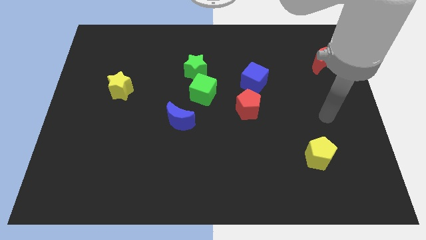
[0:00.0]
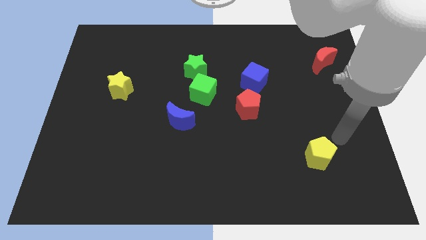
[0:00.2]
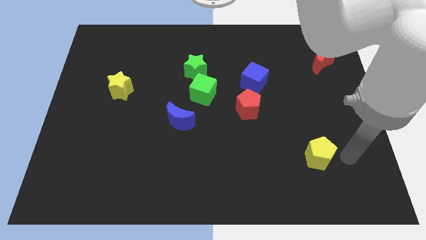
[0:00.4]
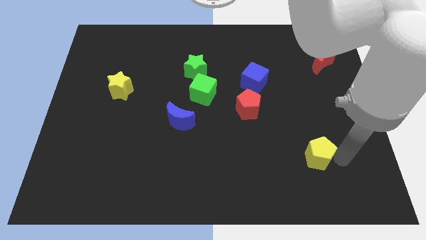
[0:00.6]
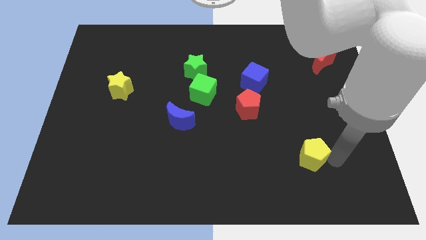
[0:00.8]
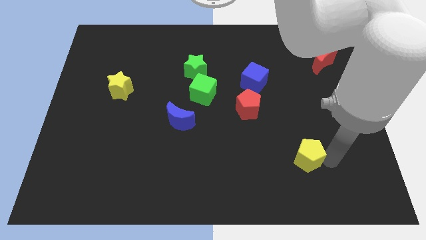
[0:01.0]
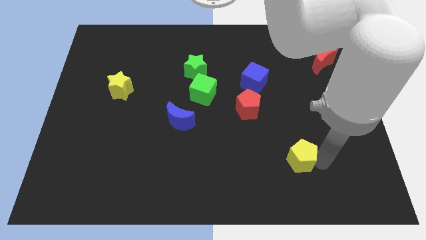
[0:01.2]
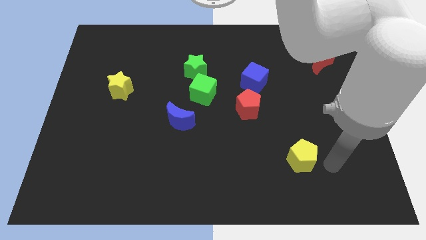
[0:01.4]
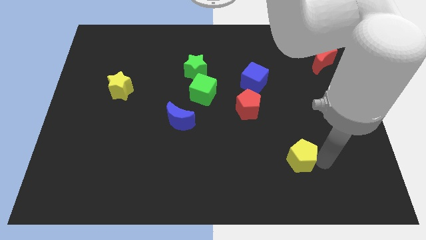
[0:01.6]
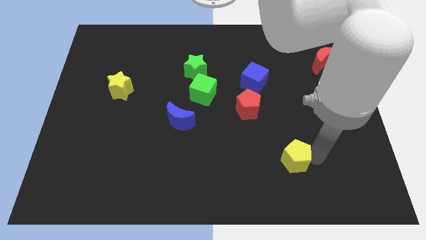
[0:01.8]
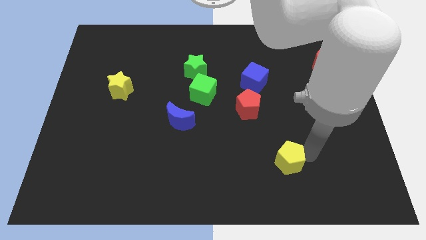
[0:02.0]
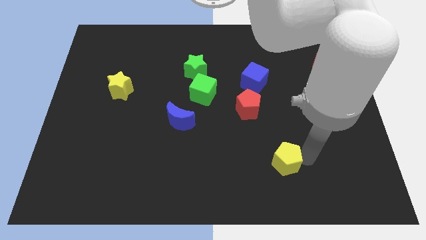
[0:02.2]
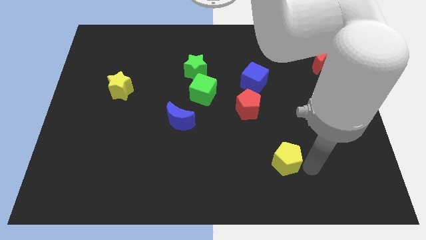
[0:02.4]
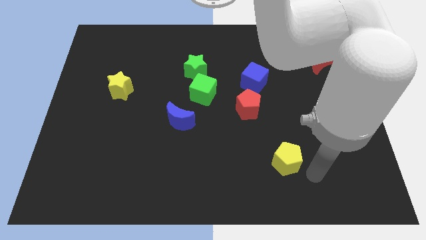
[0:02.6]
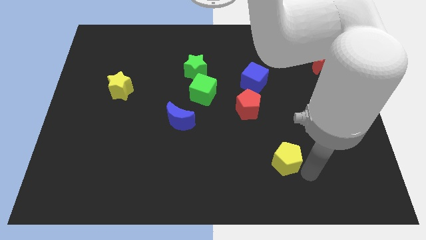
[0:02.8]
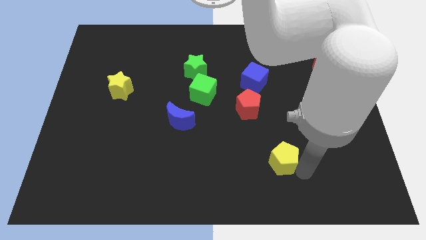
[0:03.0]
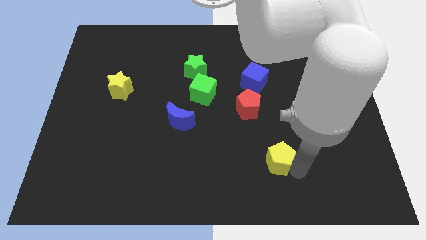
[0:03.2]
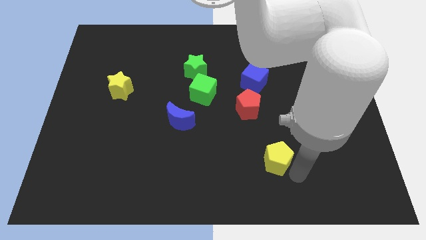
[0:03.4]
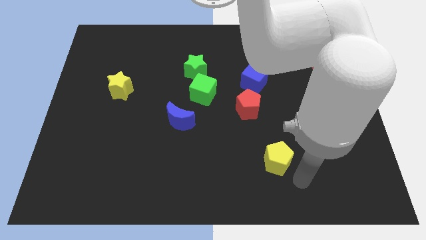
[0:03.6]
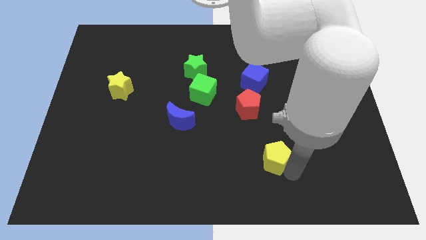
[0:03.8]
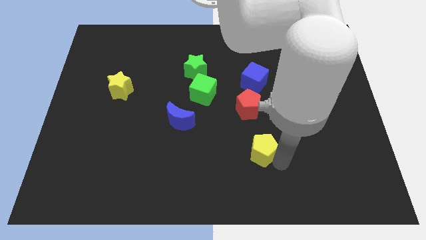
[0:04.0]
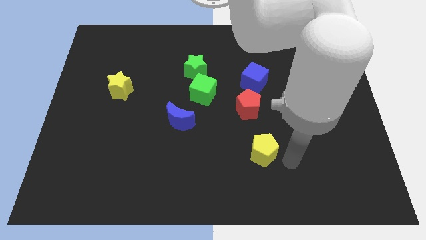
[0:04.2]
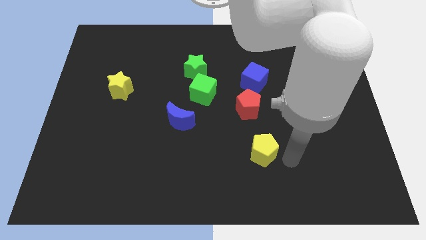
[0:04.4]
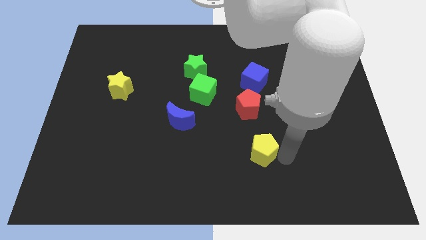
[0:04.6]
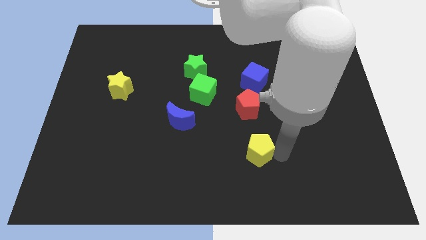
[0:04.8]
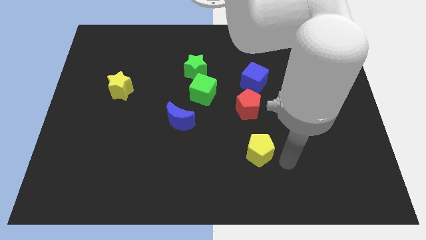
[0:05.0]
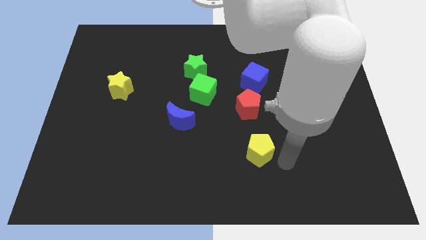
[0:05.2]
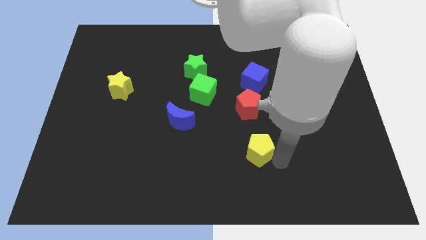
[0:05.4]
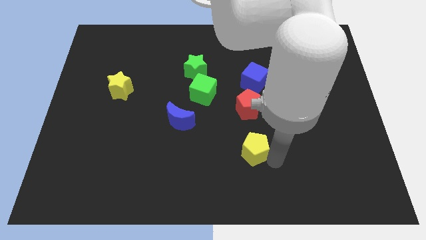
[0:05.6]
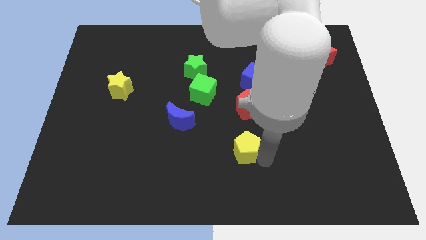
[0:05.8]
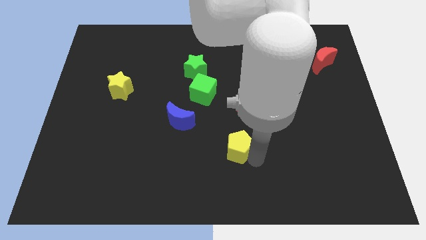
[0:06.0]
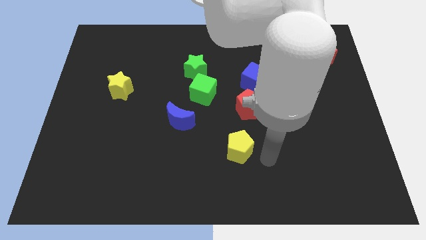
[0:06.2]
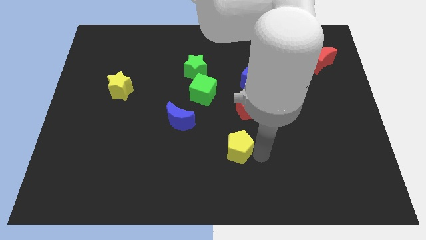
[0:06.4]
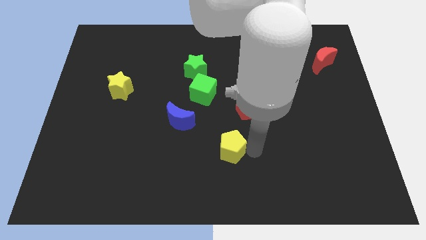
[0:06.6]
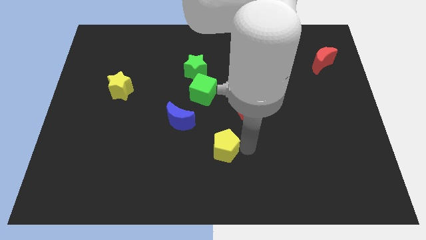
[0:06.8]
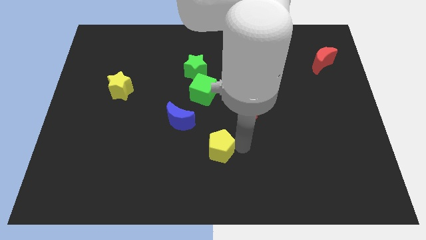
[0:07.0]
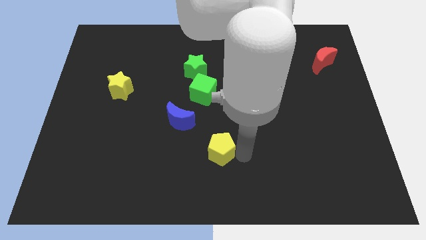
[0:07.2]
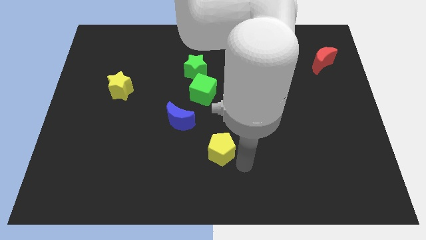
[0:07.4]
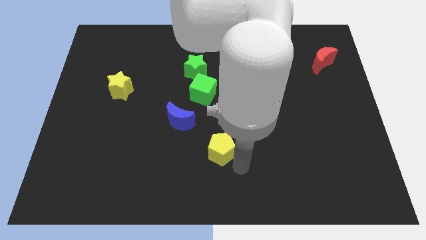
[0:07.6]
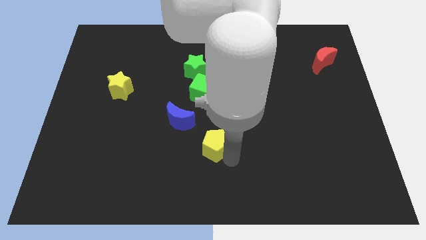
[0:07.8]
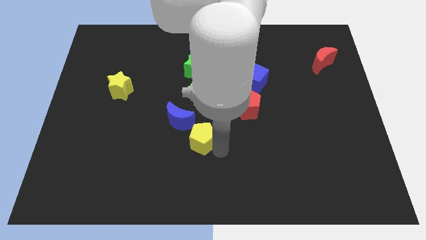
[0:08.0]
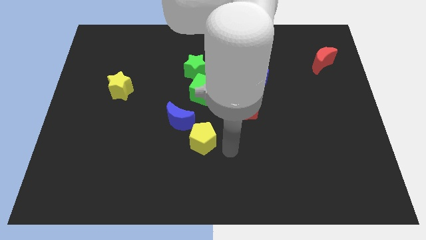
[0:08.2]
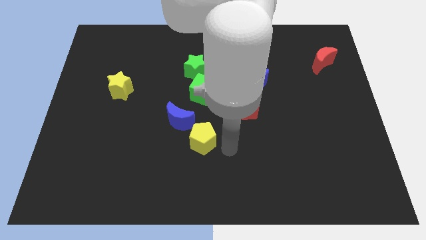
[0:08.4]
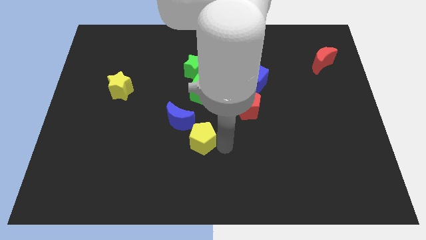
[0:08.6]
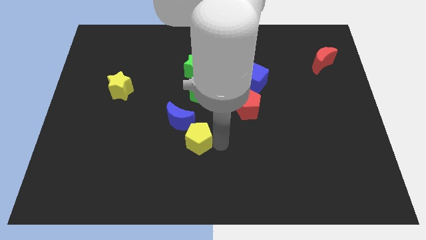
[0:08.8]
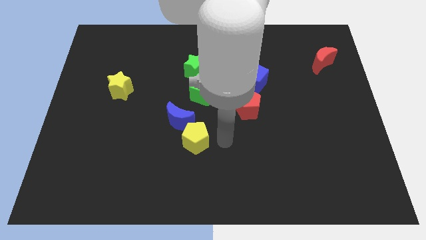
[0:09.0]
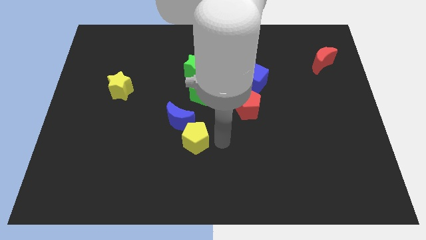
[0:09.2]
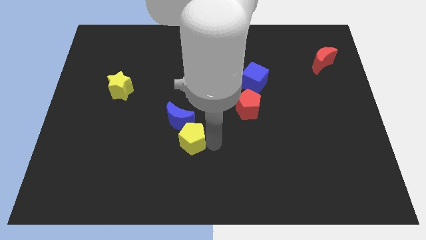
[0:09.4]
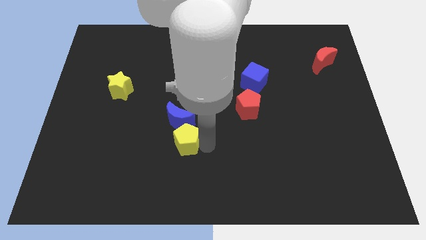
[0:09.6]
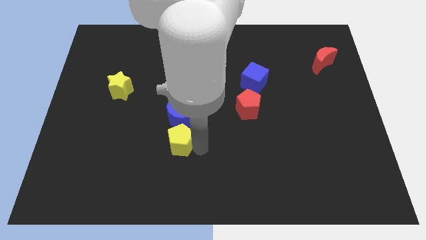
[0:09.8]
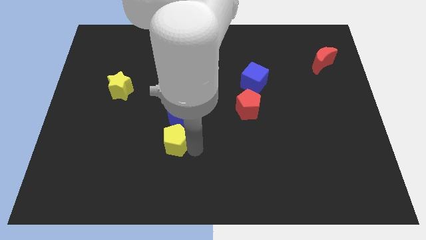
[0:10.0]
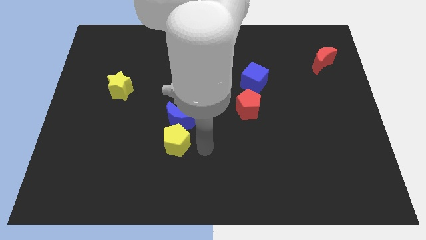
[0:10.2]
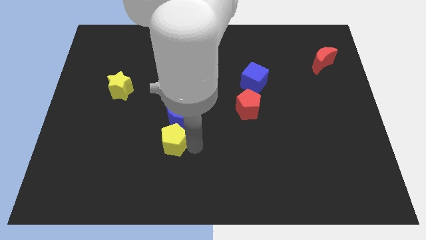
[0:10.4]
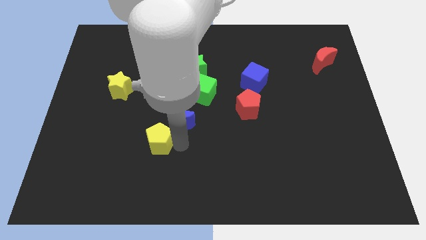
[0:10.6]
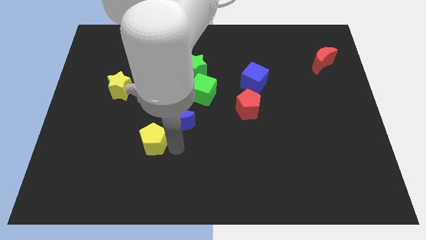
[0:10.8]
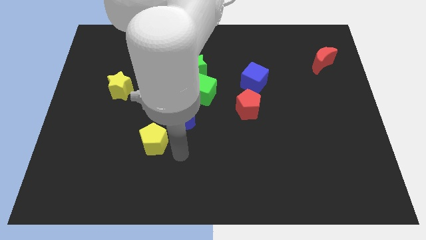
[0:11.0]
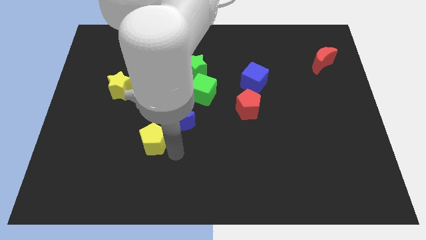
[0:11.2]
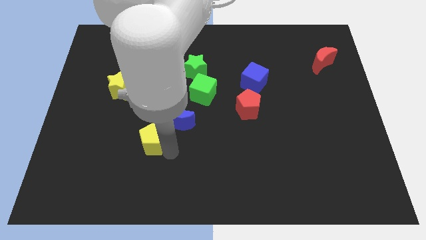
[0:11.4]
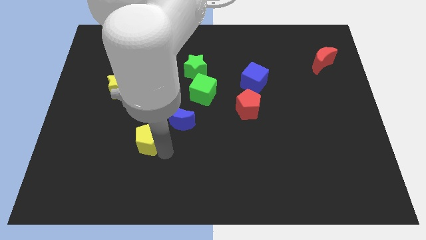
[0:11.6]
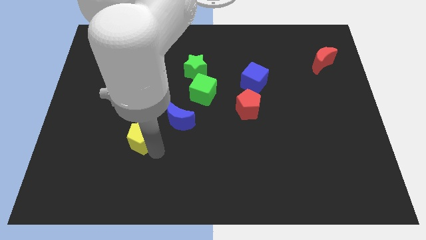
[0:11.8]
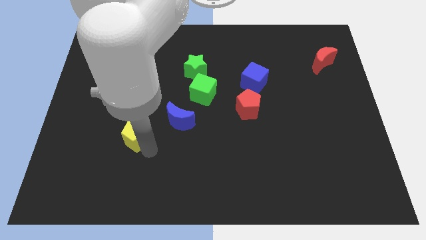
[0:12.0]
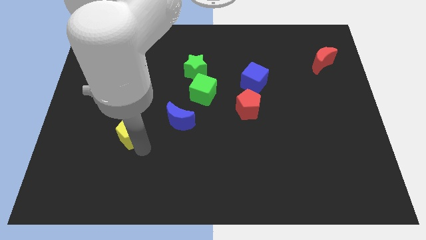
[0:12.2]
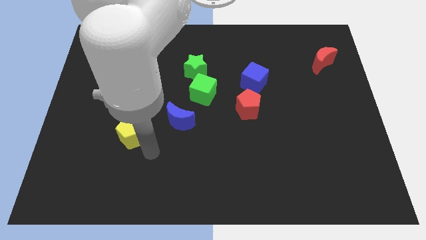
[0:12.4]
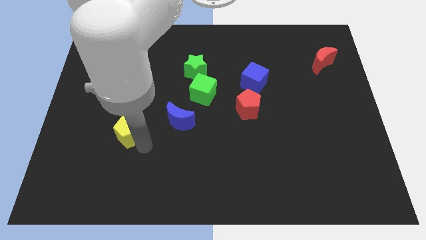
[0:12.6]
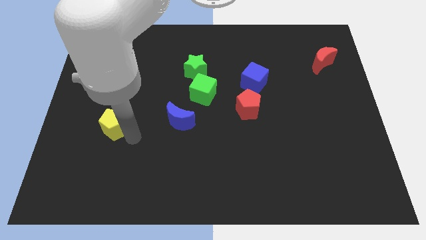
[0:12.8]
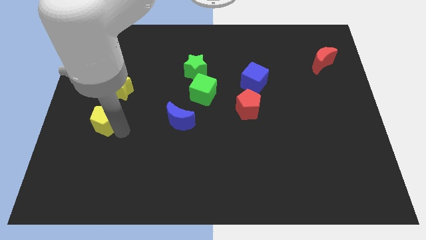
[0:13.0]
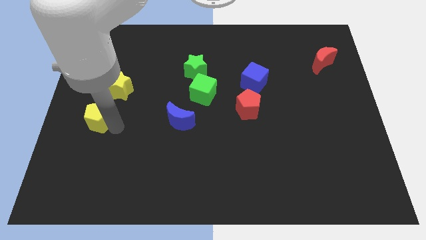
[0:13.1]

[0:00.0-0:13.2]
push the yellow pentagon to the center left

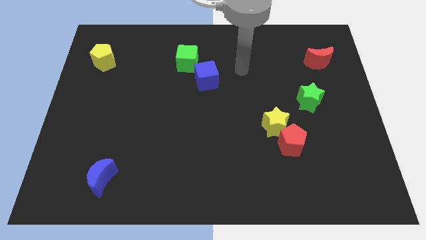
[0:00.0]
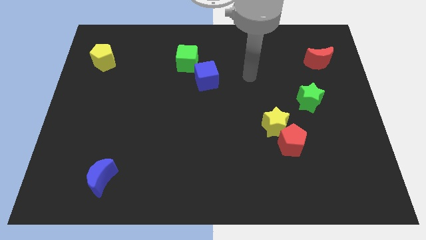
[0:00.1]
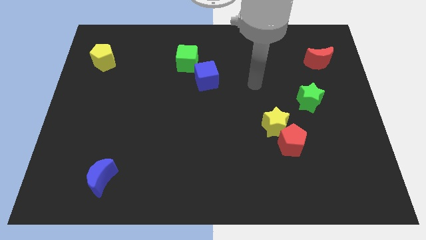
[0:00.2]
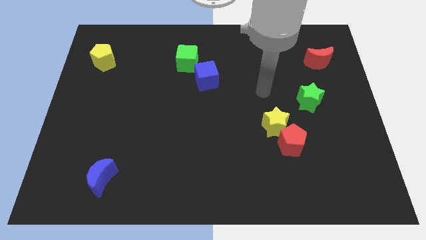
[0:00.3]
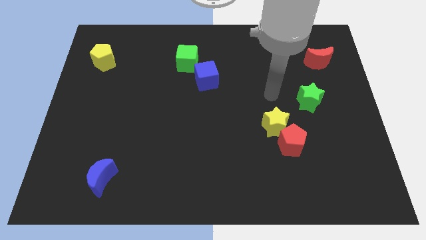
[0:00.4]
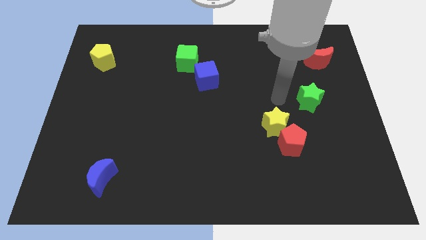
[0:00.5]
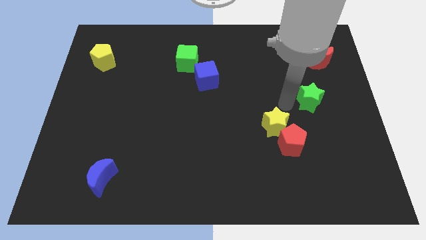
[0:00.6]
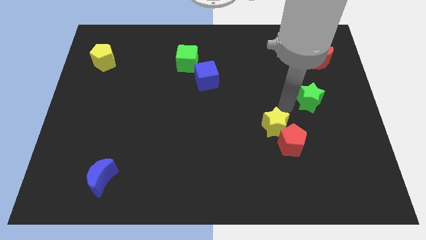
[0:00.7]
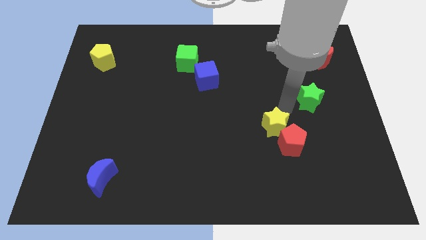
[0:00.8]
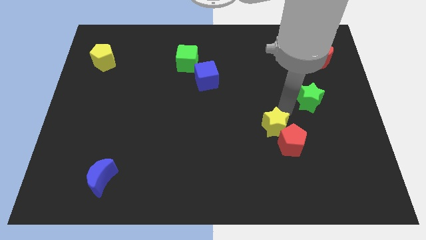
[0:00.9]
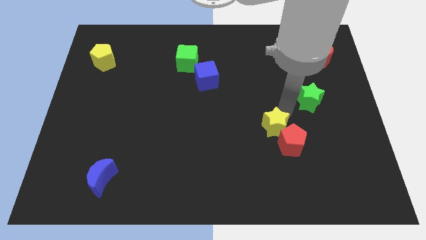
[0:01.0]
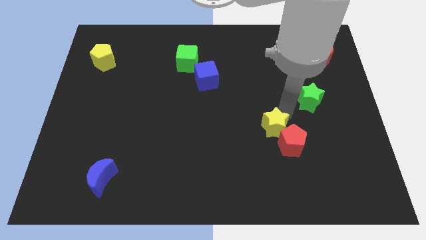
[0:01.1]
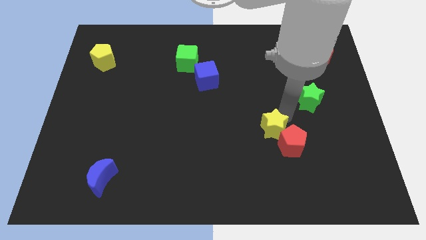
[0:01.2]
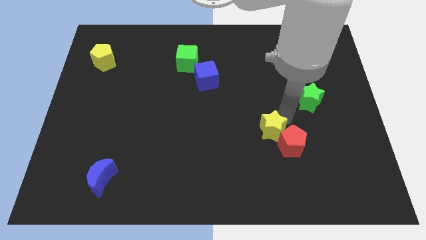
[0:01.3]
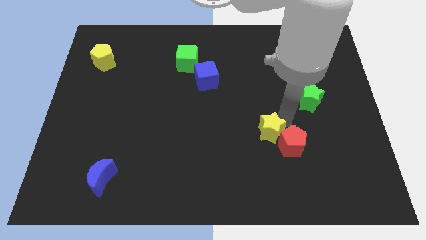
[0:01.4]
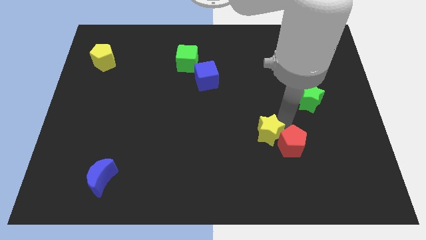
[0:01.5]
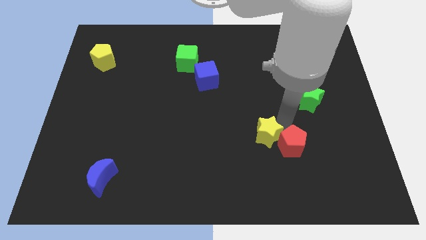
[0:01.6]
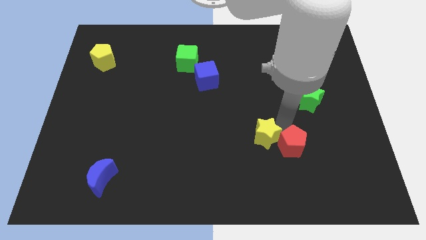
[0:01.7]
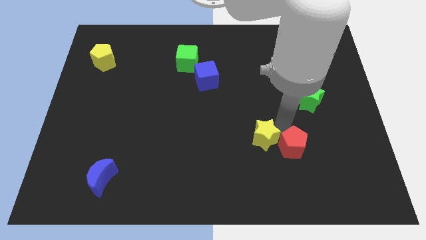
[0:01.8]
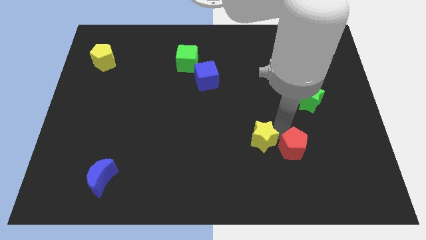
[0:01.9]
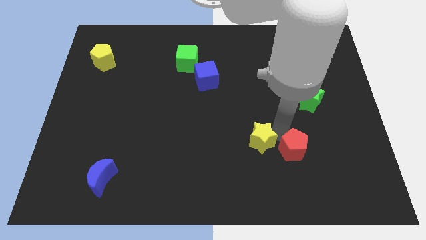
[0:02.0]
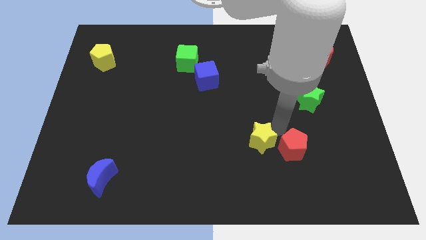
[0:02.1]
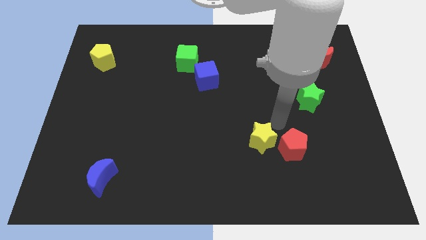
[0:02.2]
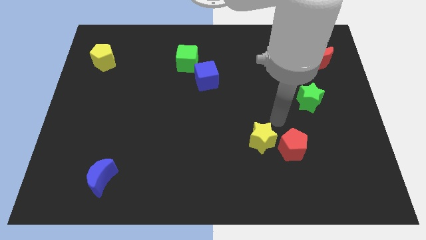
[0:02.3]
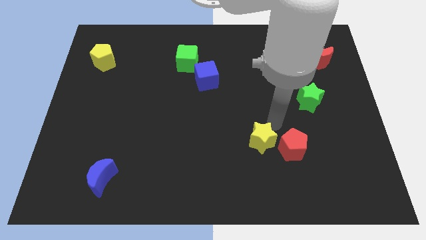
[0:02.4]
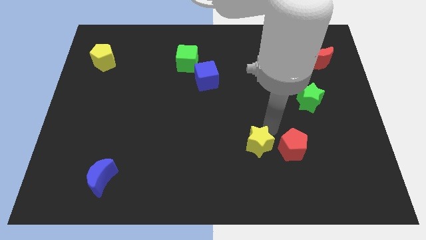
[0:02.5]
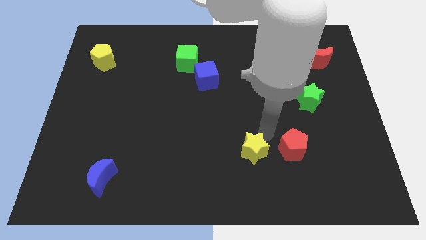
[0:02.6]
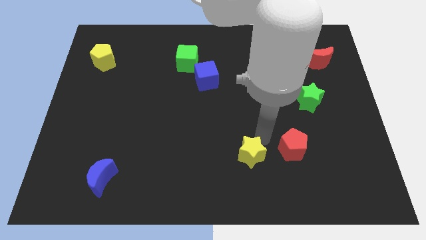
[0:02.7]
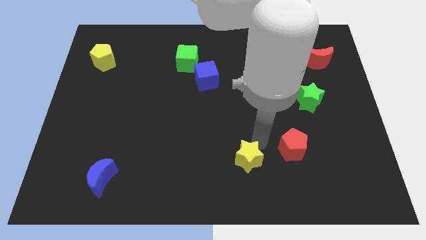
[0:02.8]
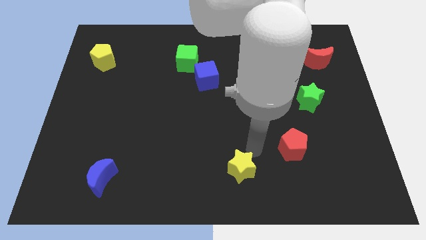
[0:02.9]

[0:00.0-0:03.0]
slide the yellow star to the bottom side
